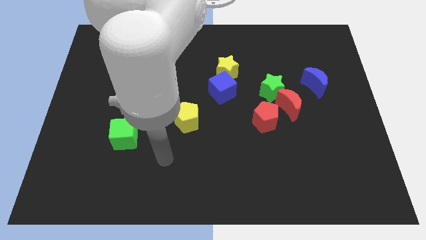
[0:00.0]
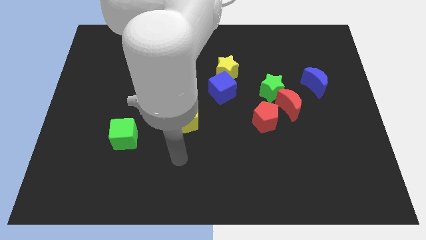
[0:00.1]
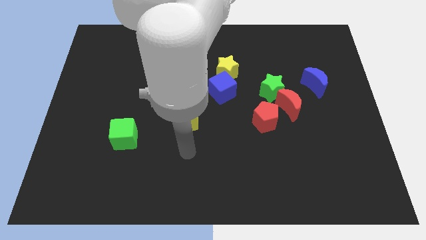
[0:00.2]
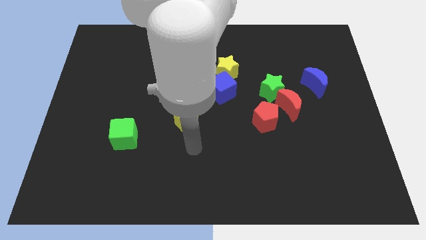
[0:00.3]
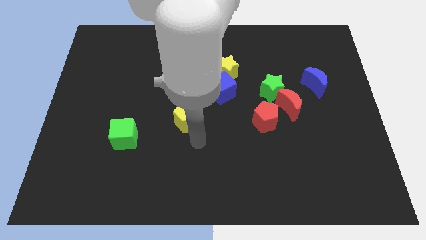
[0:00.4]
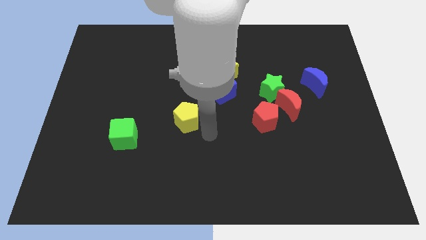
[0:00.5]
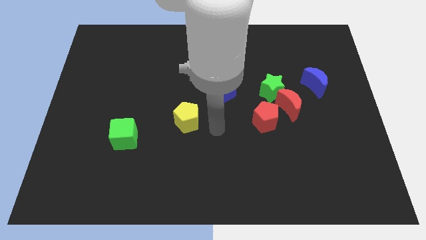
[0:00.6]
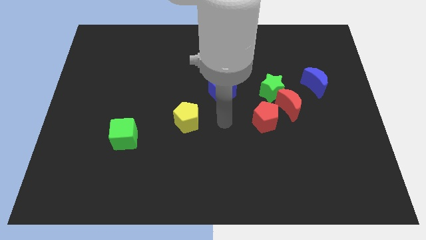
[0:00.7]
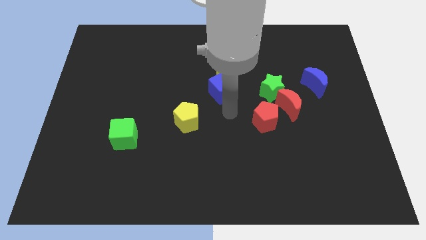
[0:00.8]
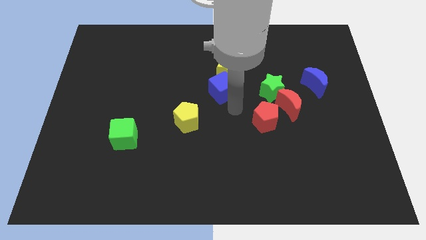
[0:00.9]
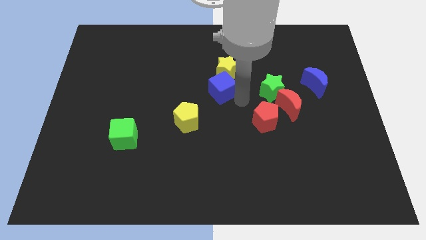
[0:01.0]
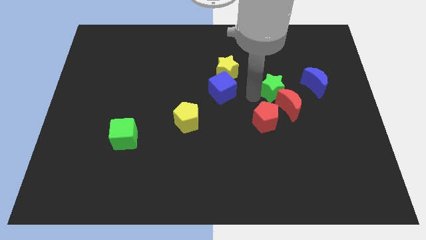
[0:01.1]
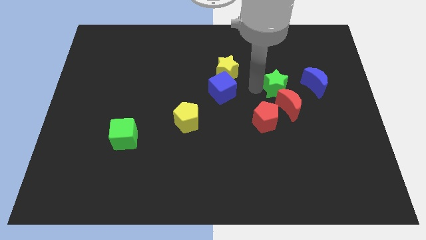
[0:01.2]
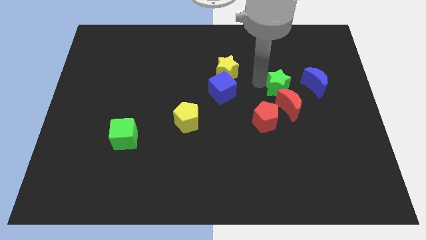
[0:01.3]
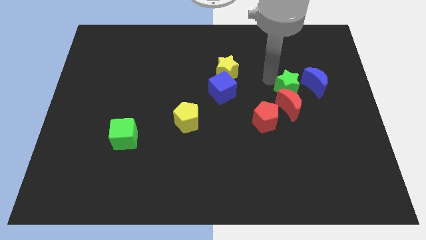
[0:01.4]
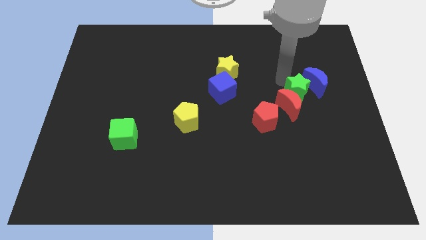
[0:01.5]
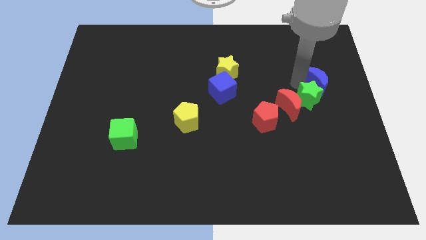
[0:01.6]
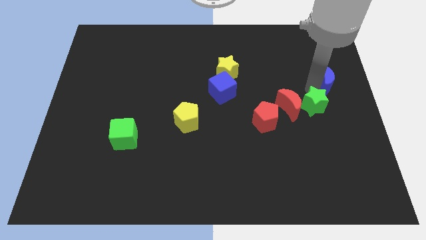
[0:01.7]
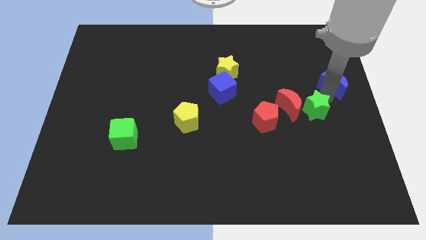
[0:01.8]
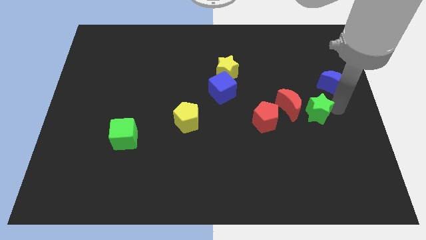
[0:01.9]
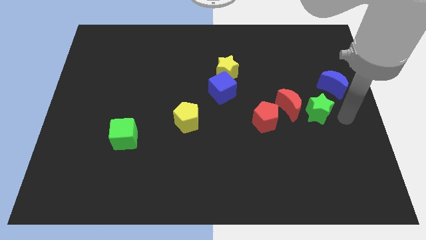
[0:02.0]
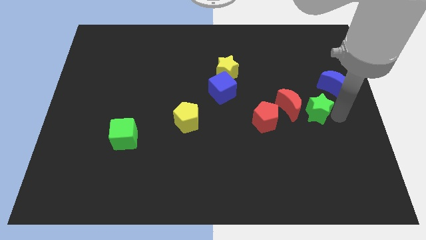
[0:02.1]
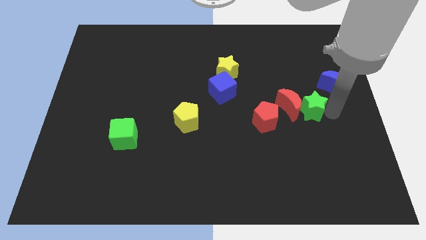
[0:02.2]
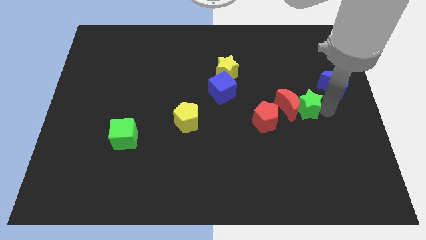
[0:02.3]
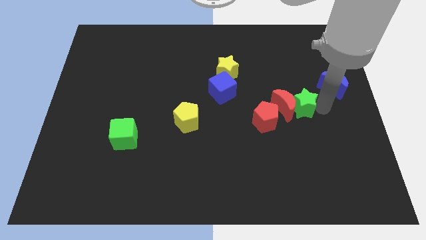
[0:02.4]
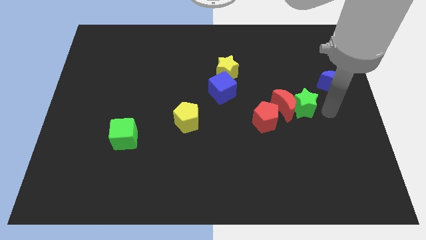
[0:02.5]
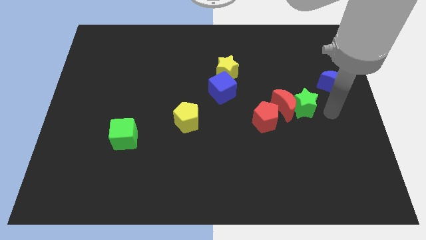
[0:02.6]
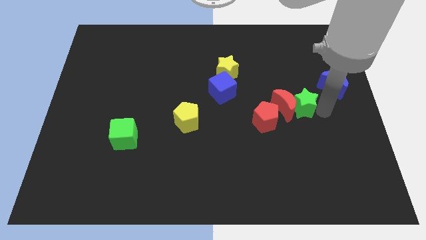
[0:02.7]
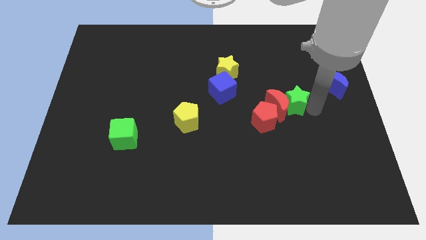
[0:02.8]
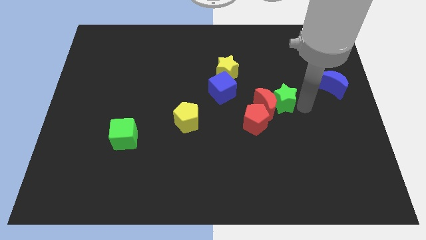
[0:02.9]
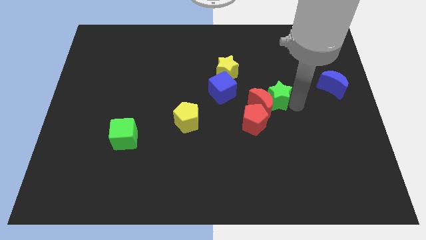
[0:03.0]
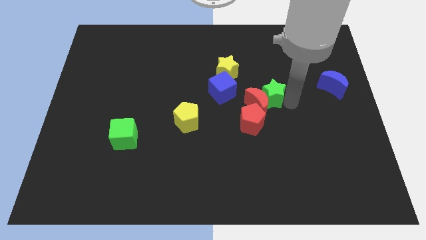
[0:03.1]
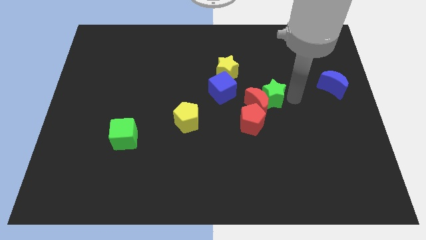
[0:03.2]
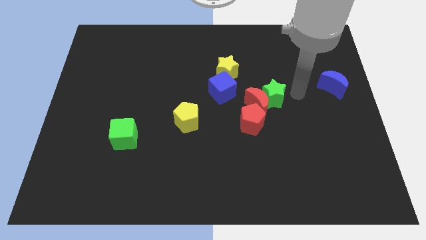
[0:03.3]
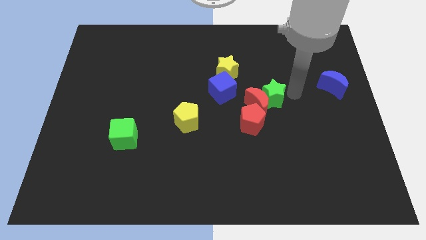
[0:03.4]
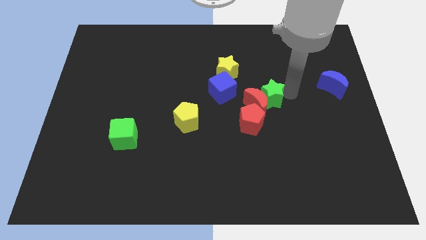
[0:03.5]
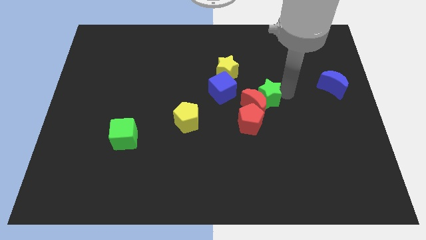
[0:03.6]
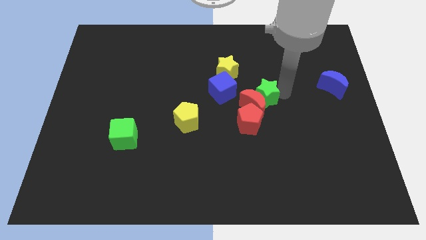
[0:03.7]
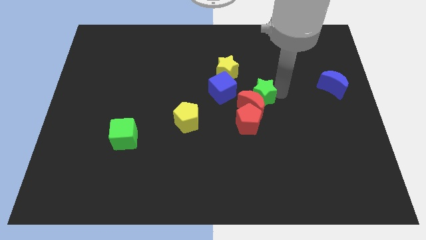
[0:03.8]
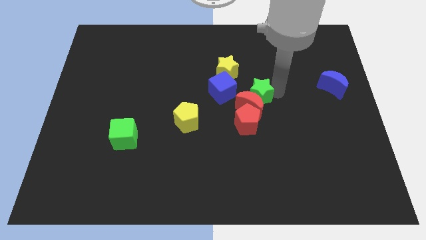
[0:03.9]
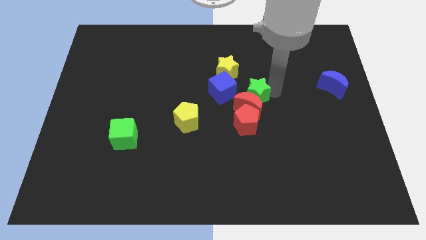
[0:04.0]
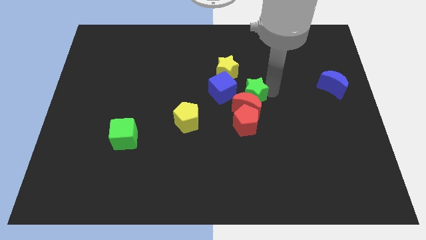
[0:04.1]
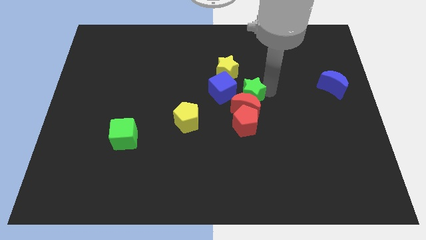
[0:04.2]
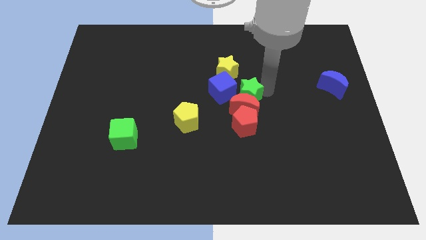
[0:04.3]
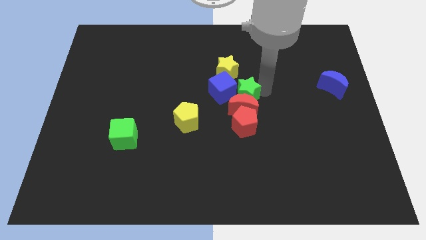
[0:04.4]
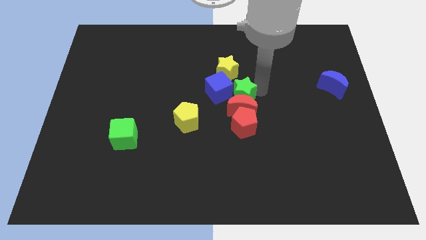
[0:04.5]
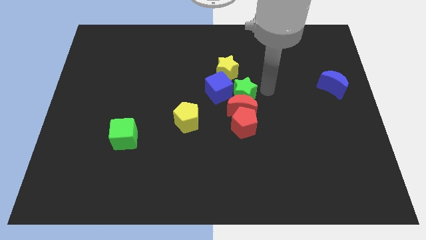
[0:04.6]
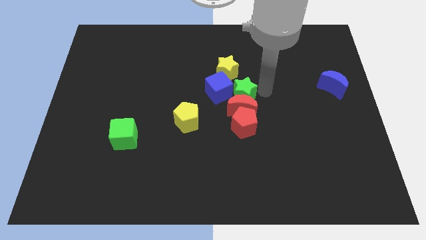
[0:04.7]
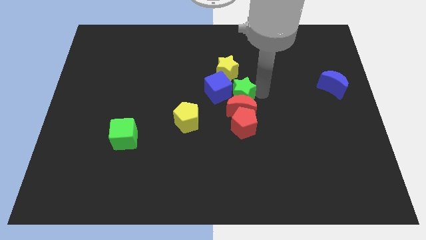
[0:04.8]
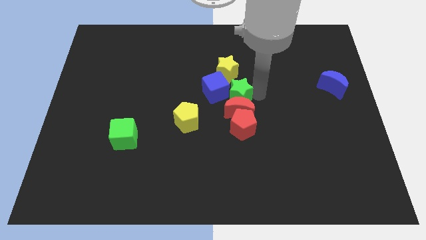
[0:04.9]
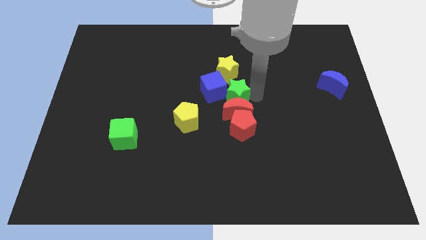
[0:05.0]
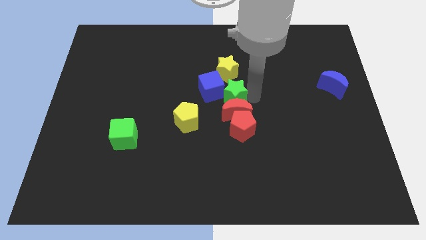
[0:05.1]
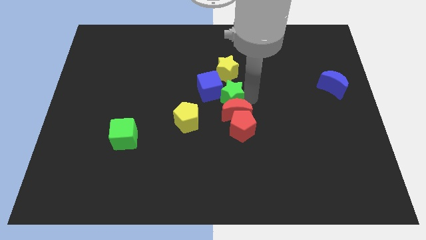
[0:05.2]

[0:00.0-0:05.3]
put the green star to the top right of the yellow pentagon

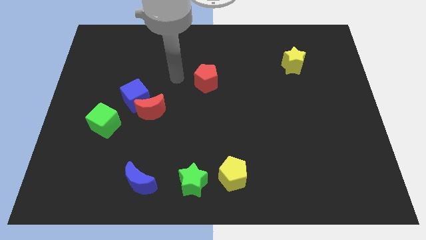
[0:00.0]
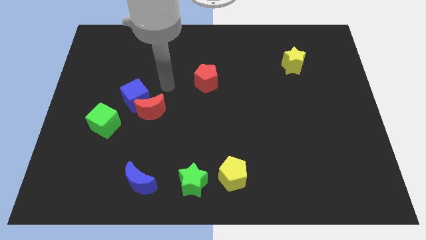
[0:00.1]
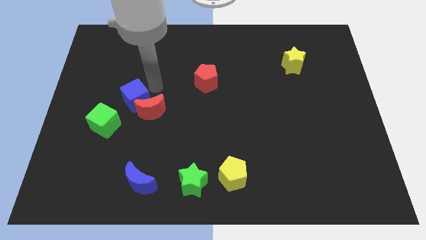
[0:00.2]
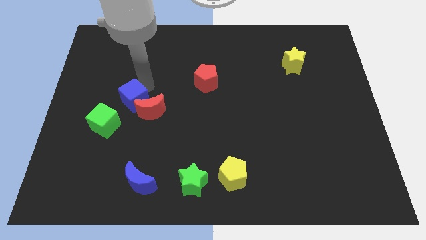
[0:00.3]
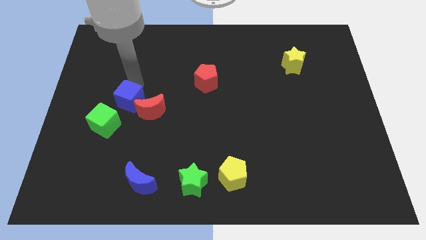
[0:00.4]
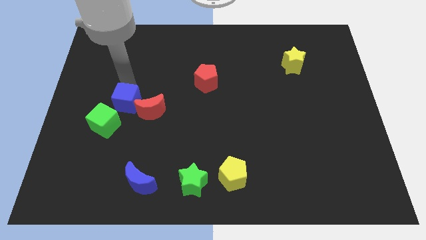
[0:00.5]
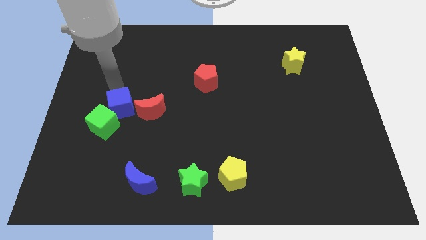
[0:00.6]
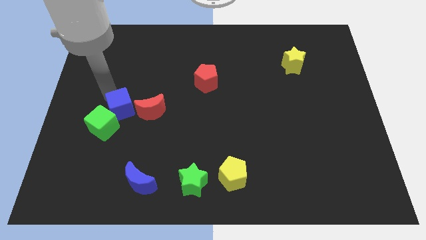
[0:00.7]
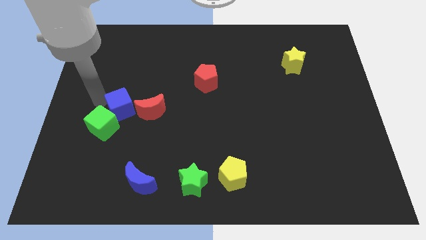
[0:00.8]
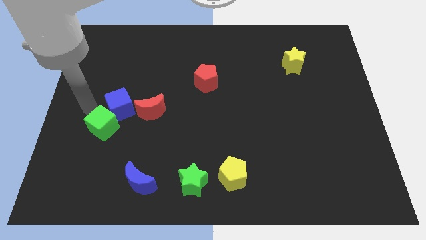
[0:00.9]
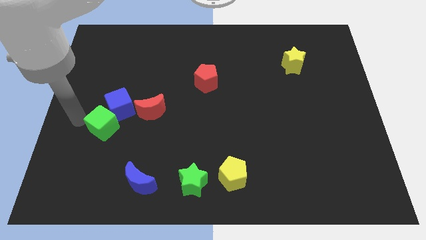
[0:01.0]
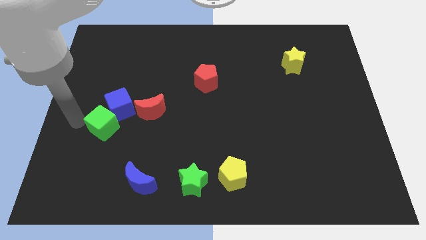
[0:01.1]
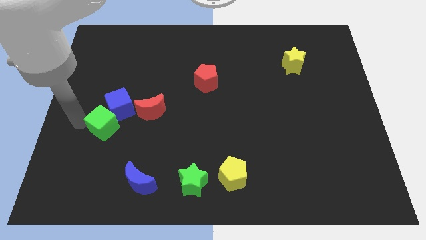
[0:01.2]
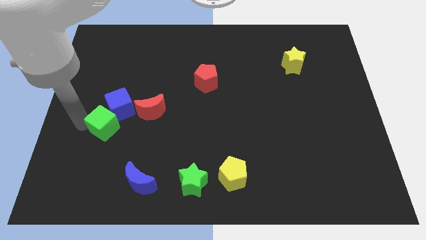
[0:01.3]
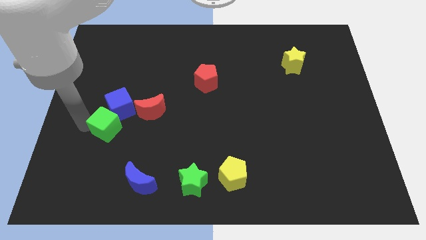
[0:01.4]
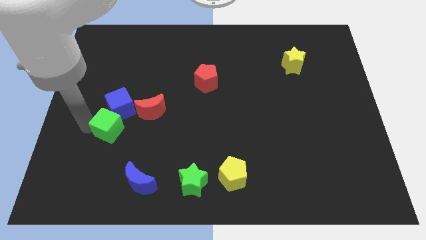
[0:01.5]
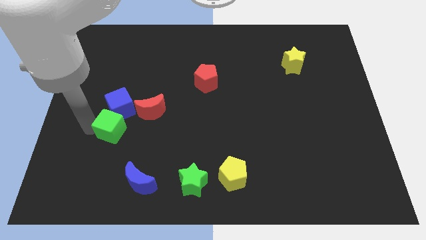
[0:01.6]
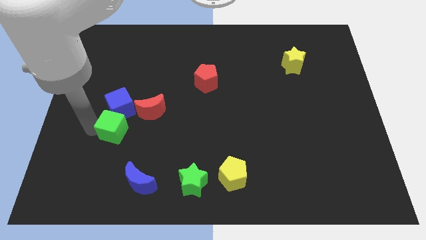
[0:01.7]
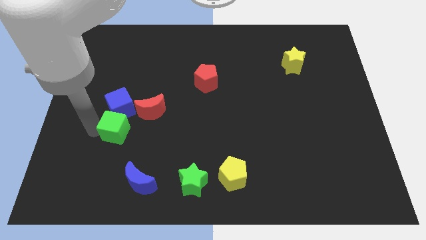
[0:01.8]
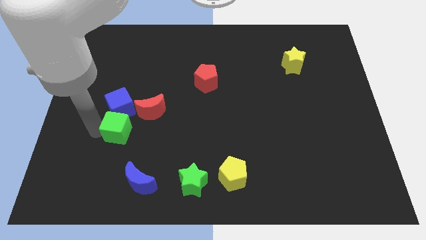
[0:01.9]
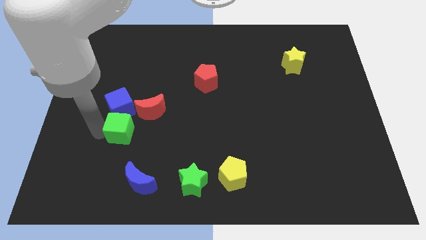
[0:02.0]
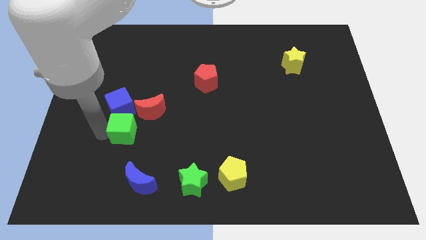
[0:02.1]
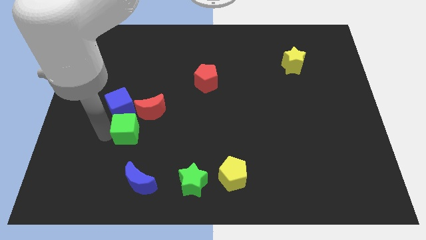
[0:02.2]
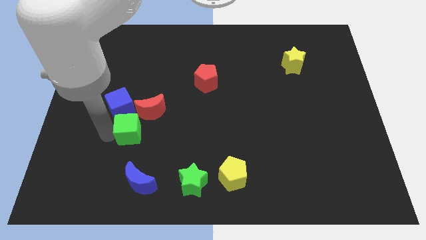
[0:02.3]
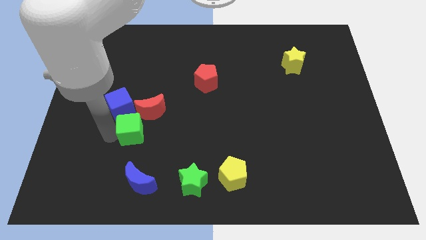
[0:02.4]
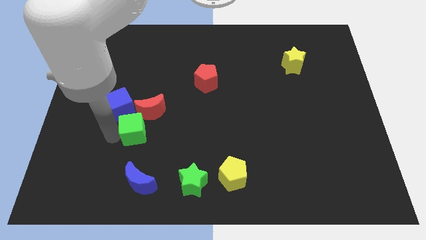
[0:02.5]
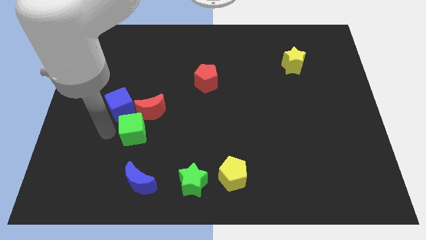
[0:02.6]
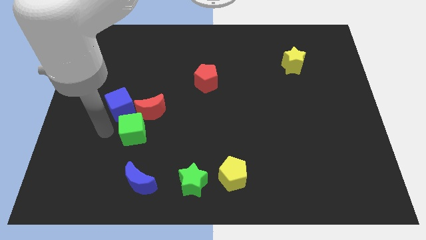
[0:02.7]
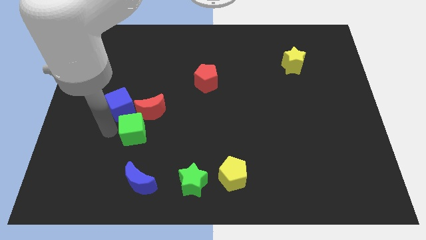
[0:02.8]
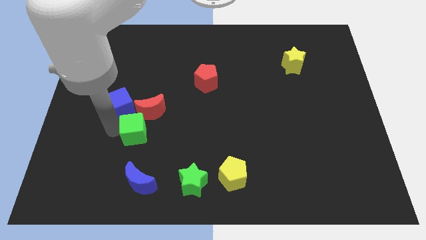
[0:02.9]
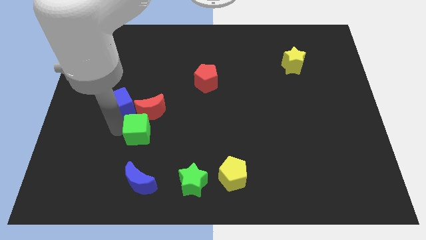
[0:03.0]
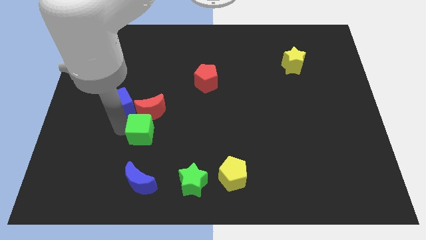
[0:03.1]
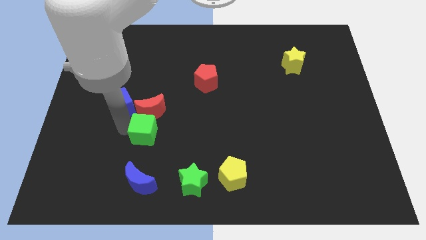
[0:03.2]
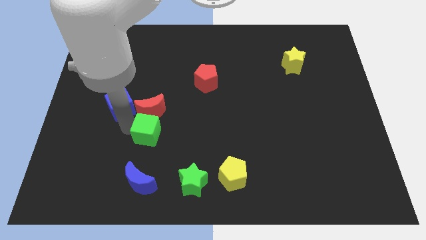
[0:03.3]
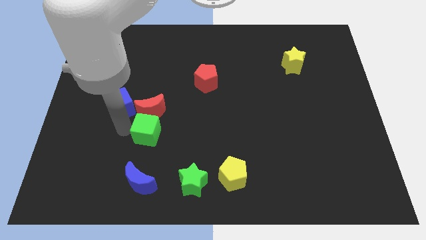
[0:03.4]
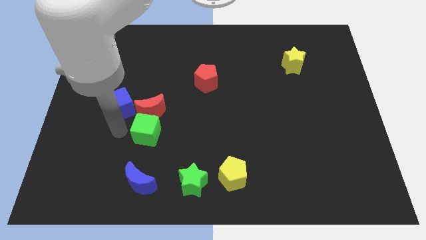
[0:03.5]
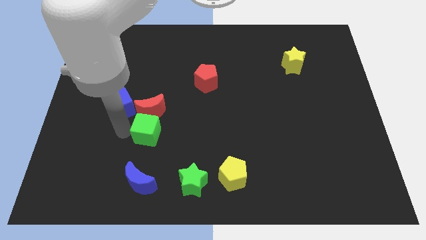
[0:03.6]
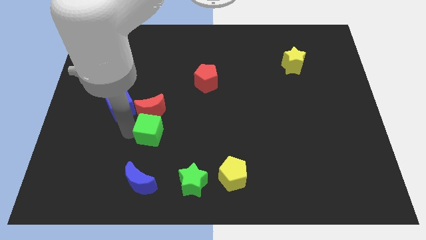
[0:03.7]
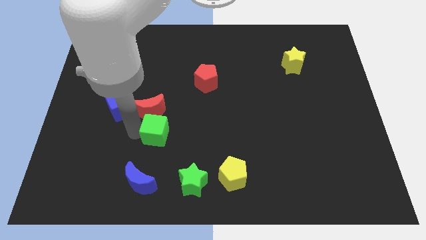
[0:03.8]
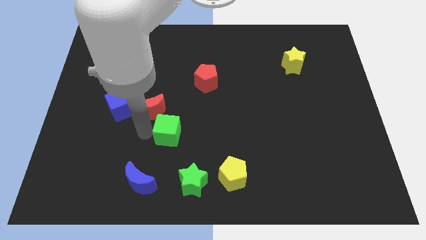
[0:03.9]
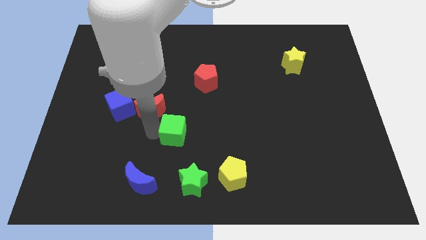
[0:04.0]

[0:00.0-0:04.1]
push the green cube above the green star
